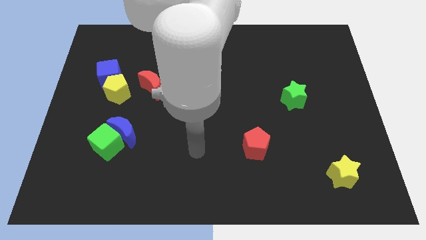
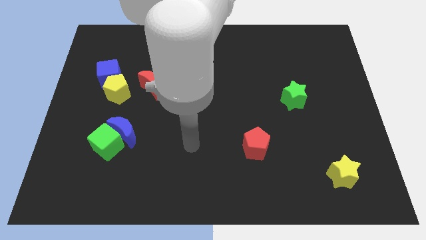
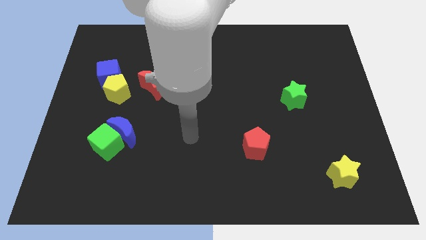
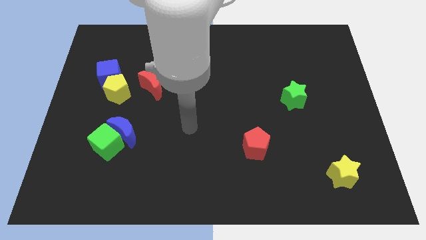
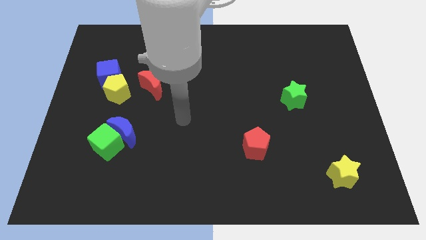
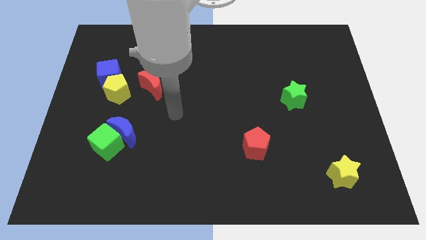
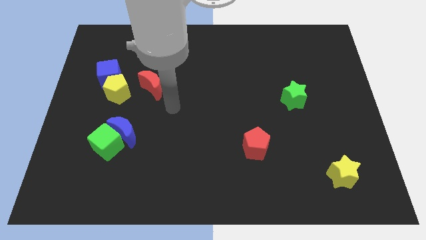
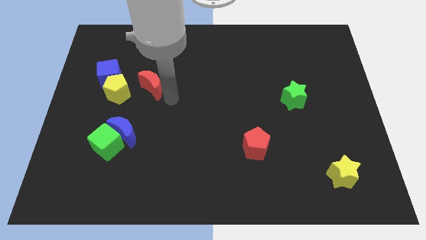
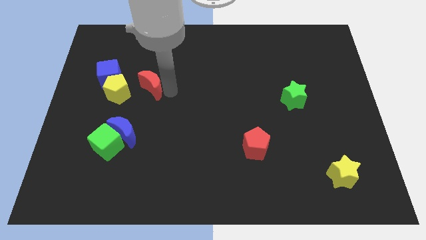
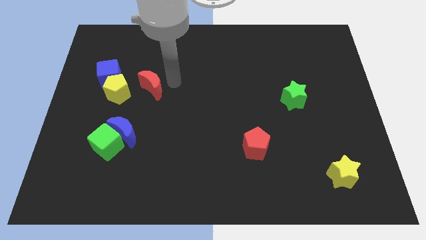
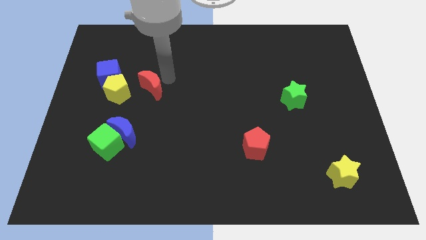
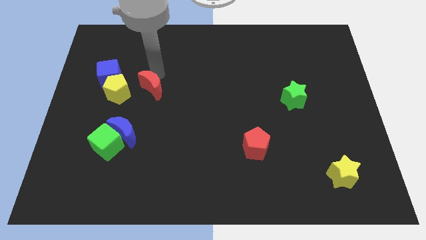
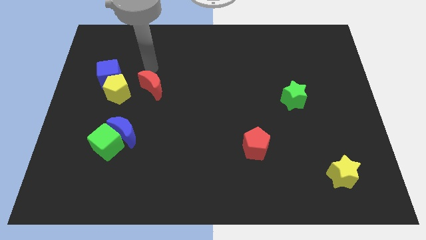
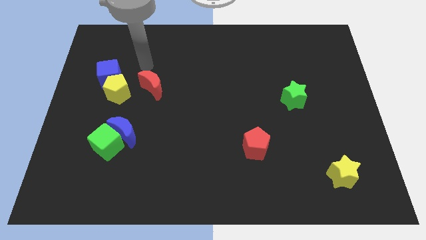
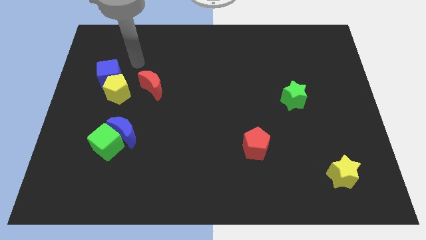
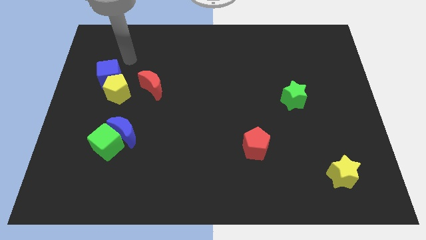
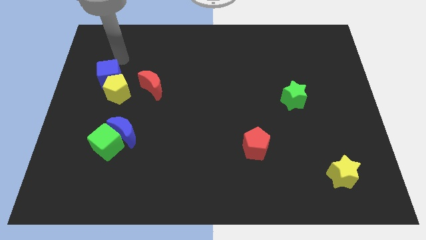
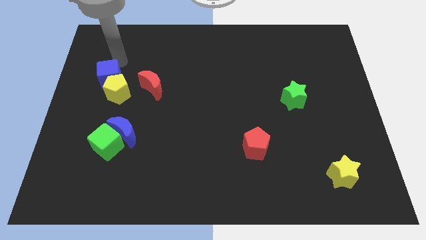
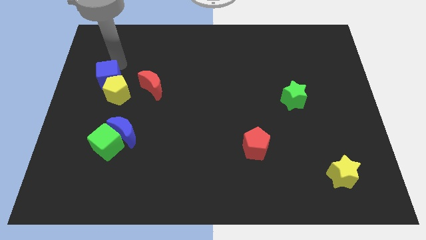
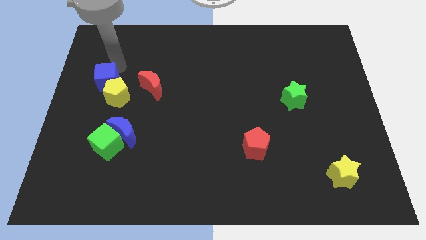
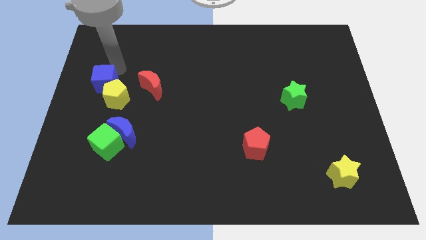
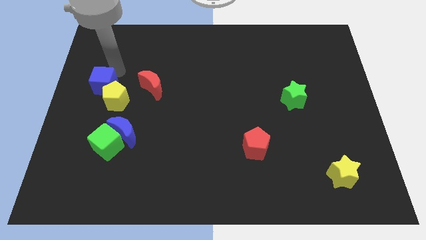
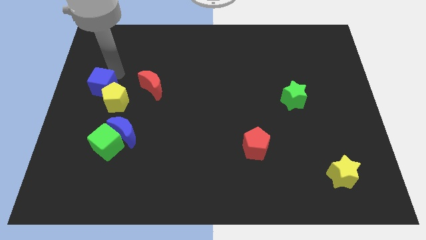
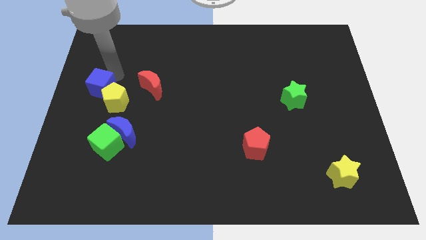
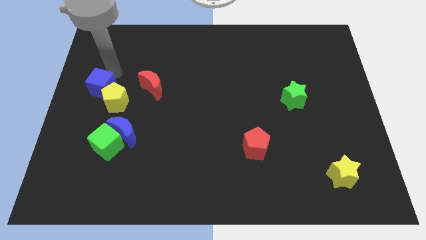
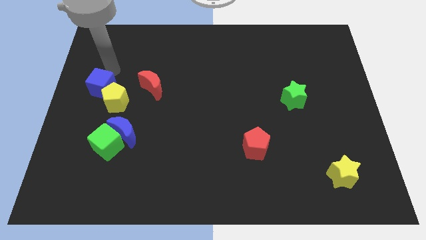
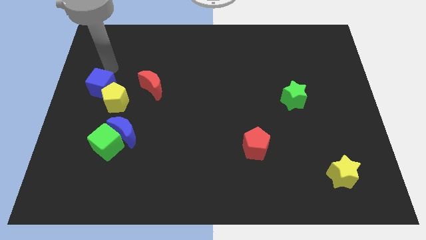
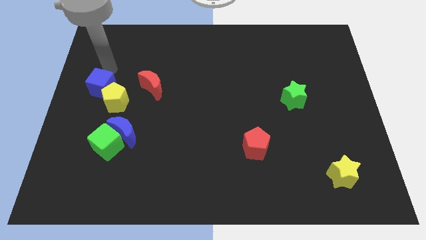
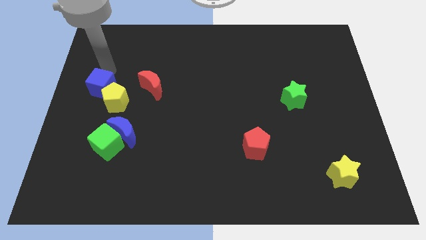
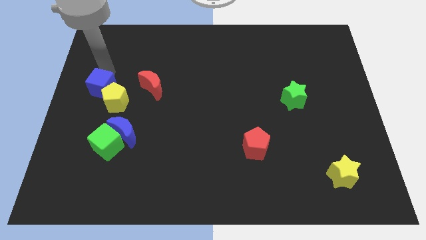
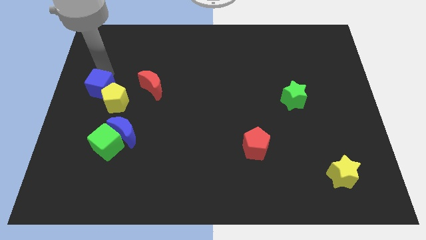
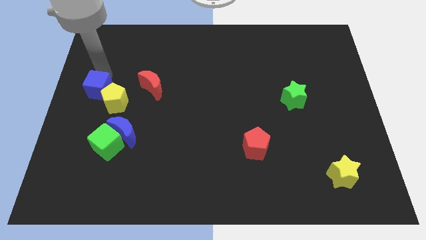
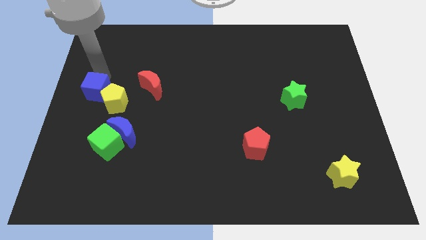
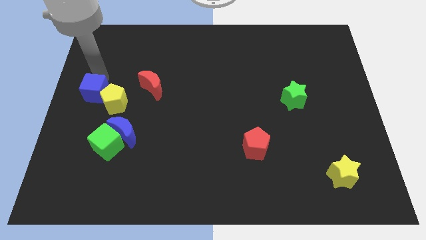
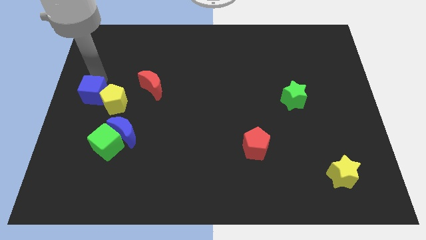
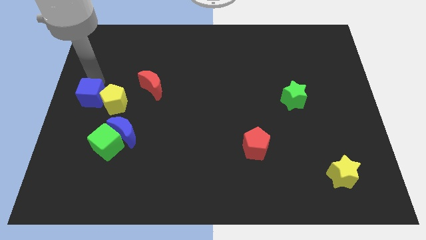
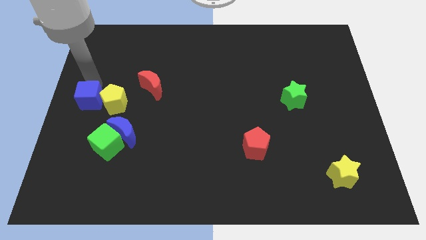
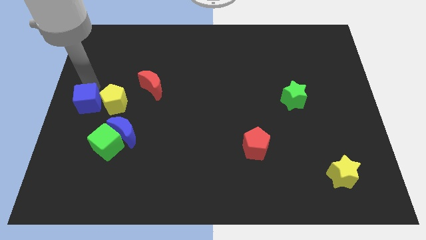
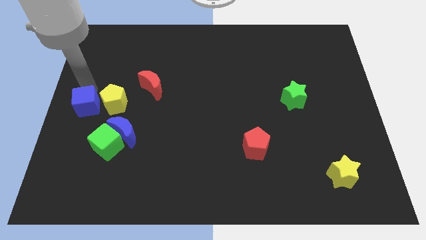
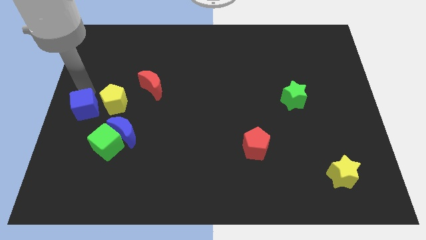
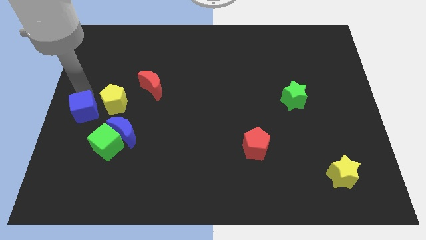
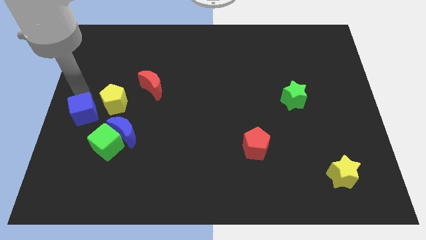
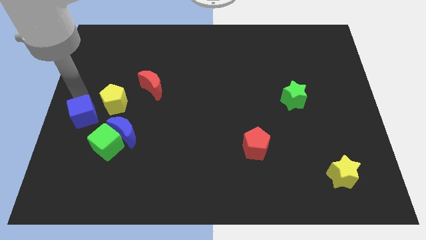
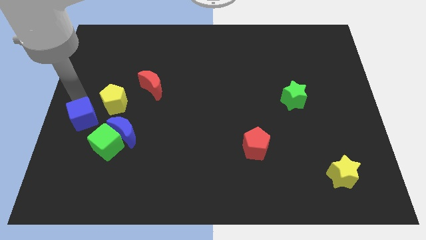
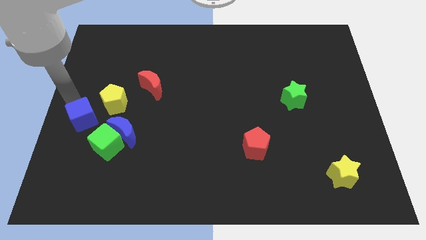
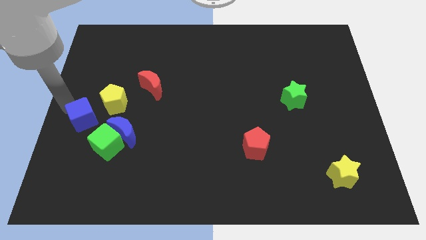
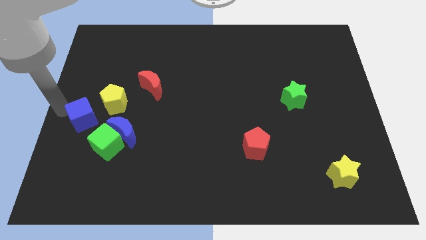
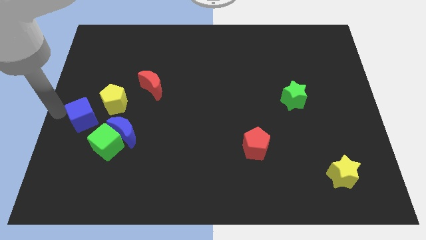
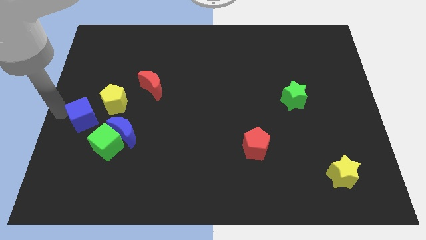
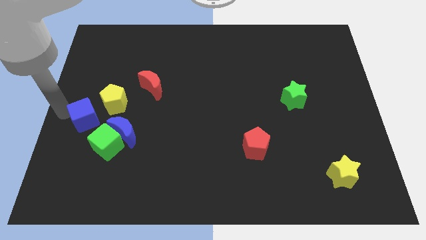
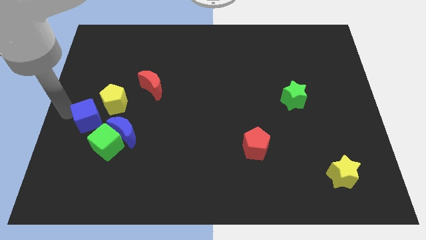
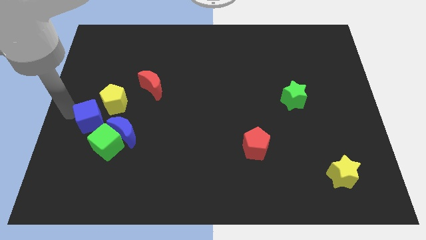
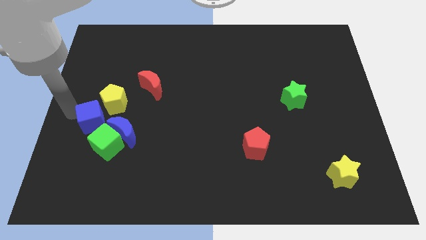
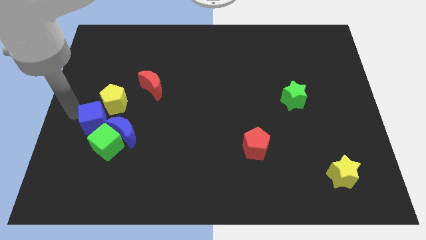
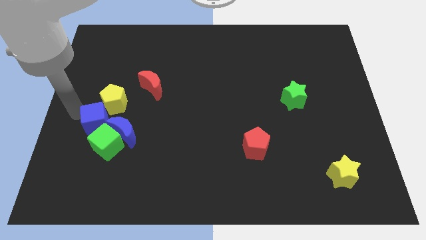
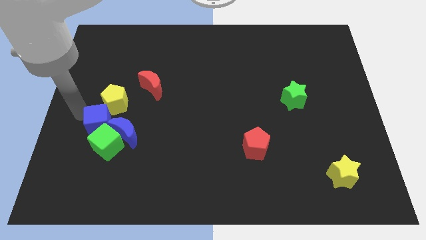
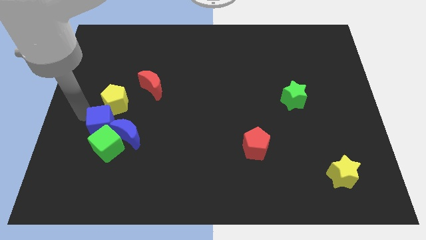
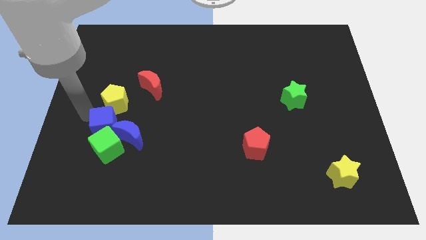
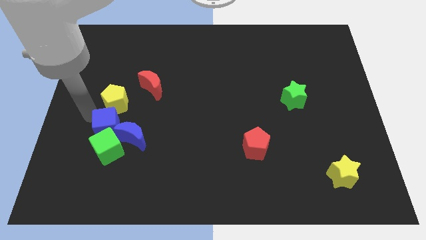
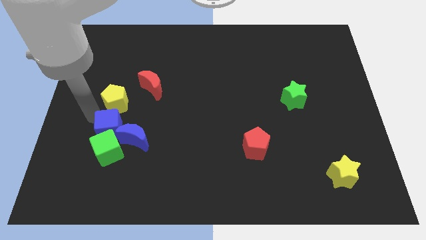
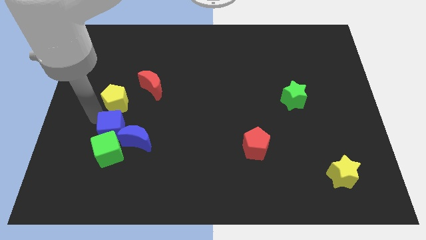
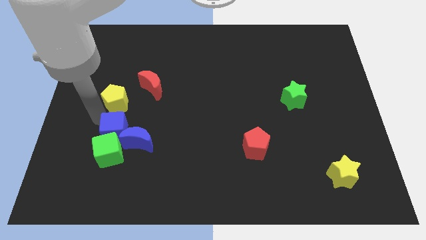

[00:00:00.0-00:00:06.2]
push the blue cube close to the blue moon

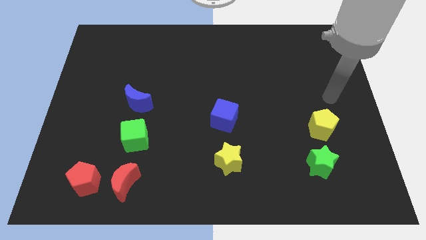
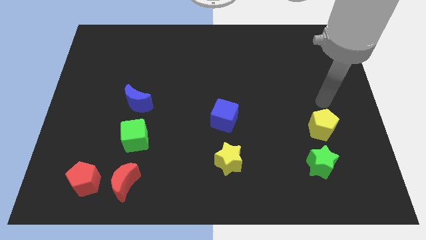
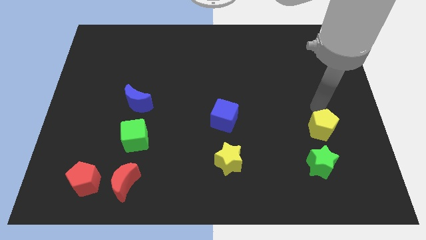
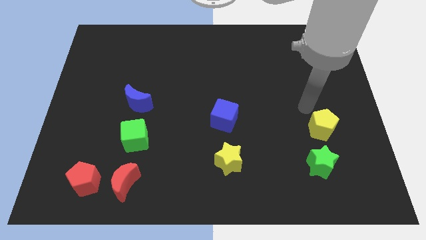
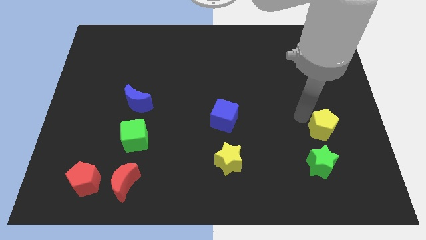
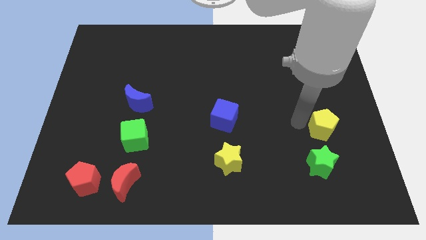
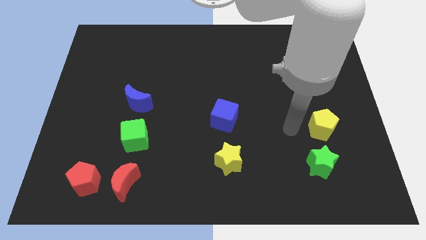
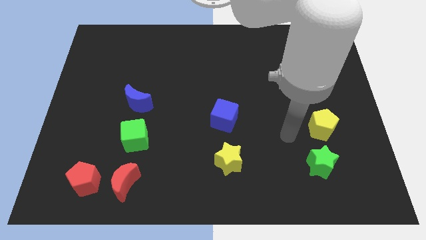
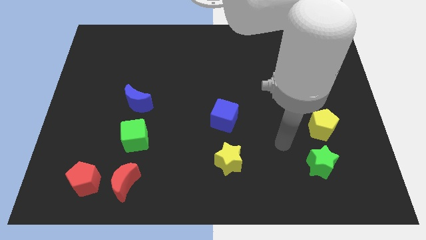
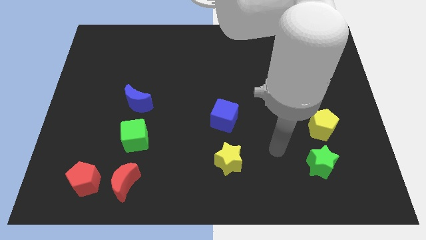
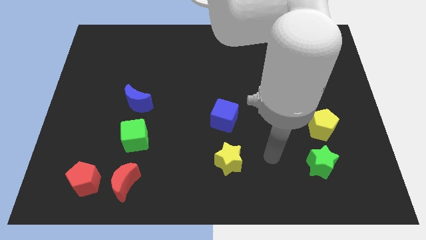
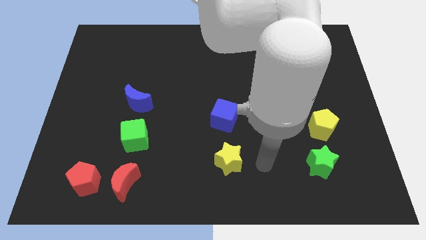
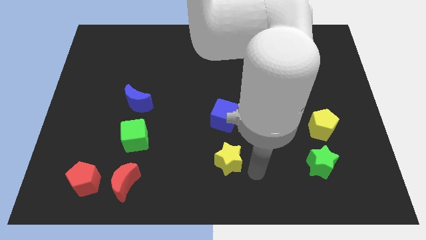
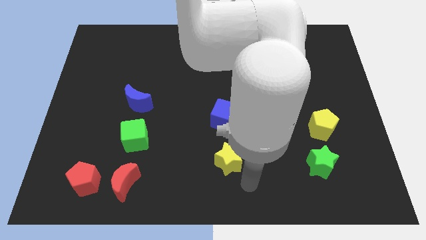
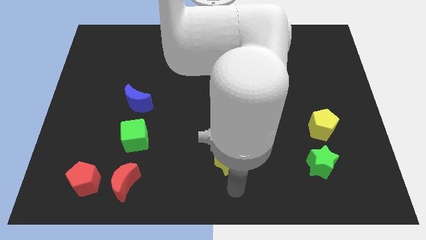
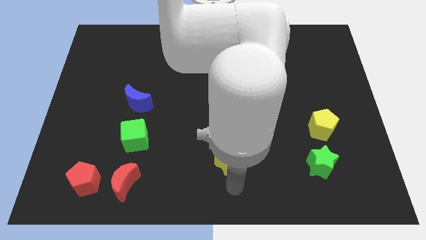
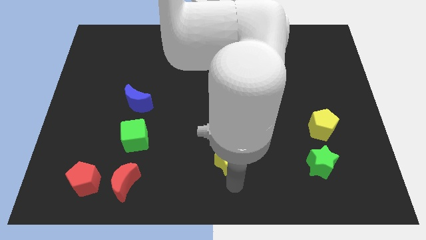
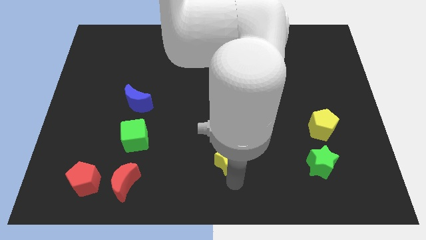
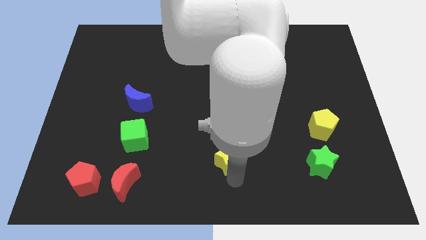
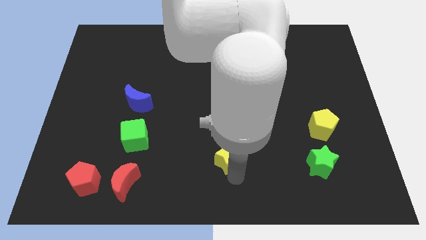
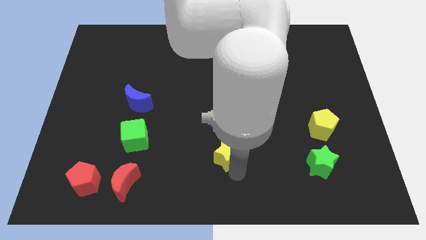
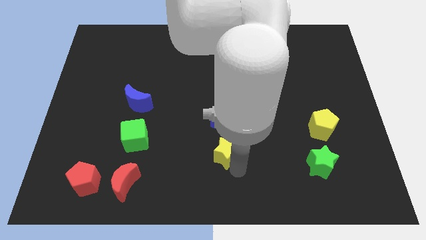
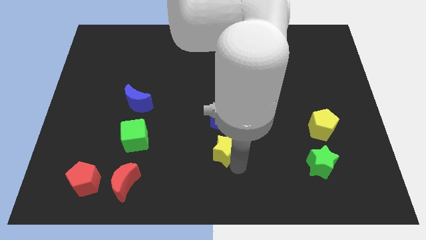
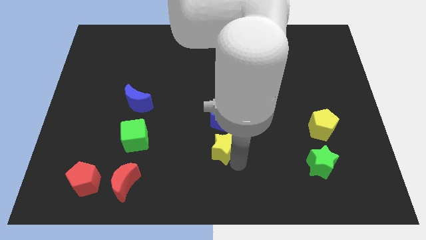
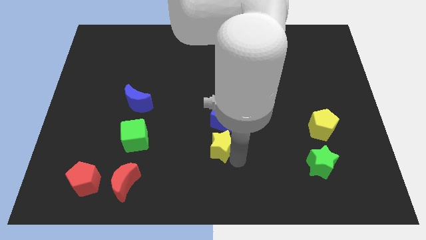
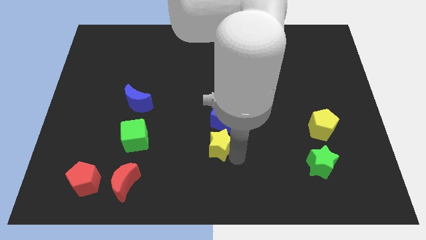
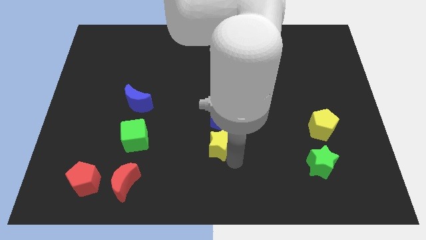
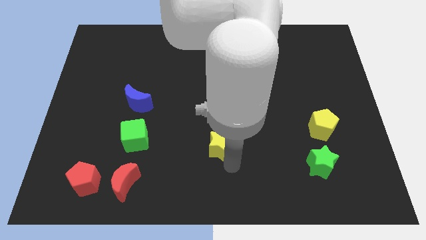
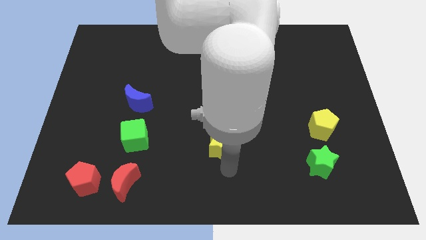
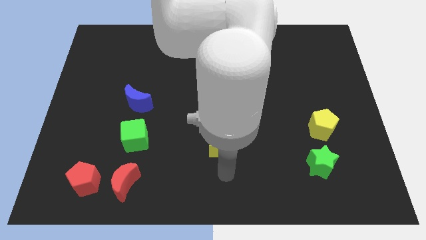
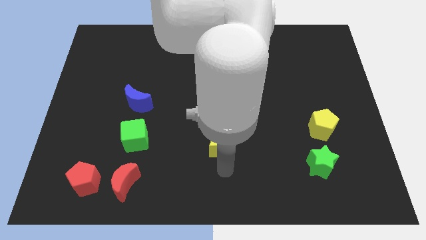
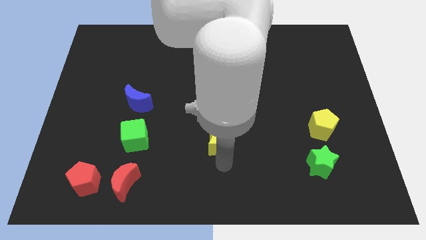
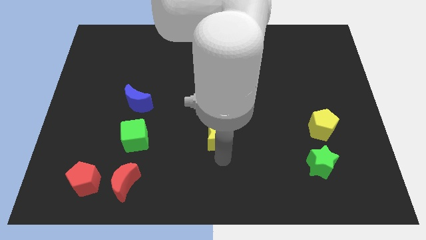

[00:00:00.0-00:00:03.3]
move the yellow star next to the blue cube
